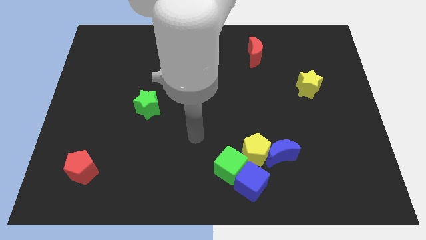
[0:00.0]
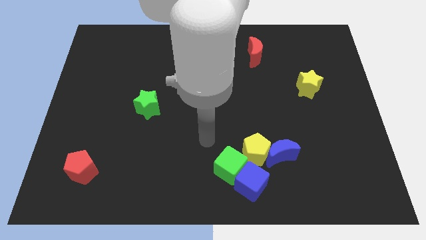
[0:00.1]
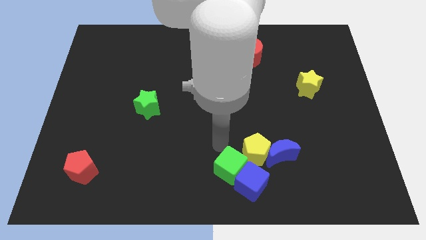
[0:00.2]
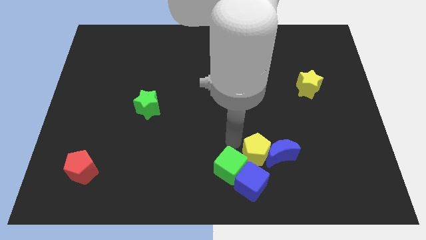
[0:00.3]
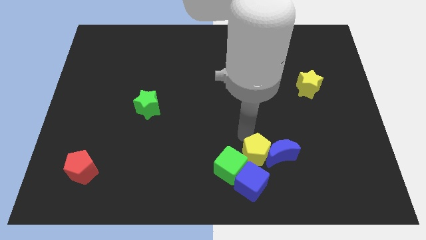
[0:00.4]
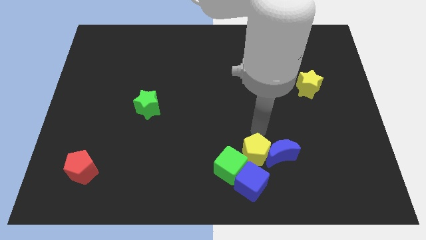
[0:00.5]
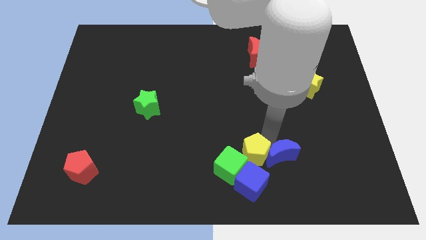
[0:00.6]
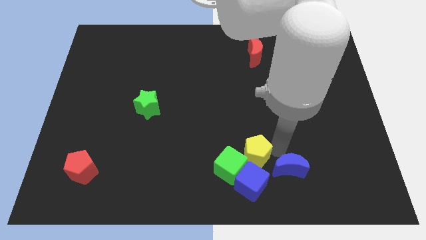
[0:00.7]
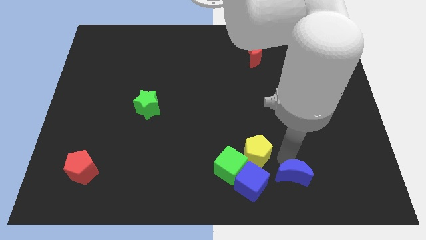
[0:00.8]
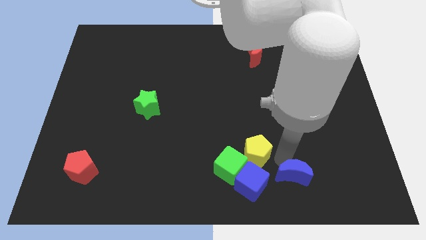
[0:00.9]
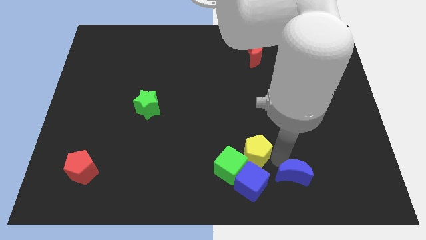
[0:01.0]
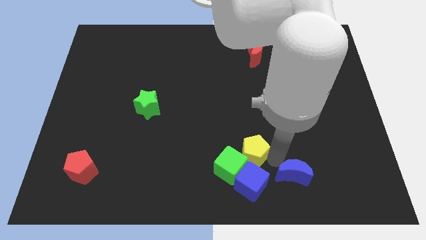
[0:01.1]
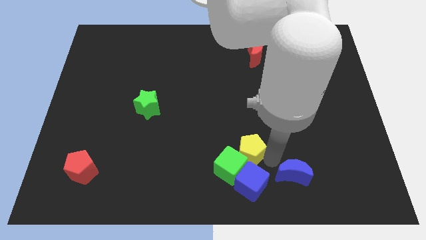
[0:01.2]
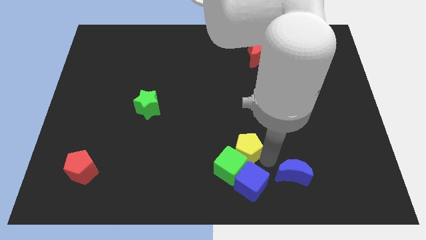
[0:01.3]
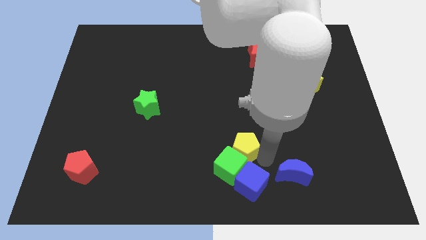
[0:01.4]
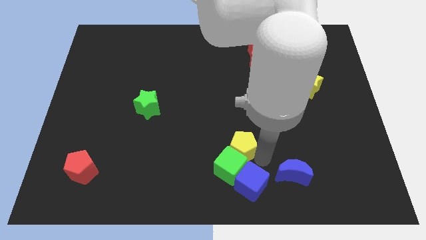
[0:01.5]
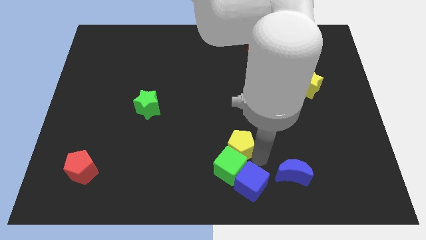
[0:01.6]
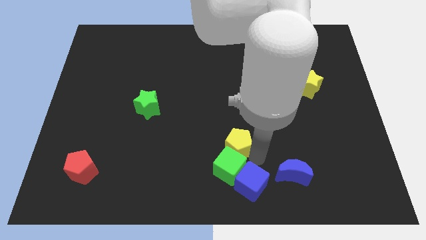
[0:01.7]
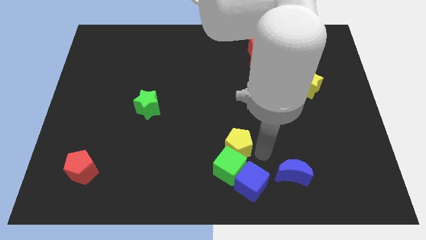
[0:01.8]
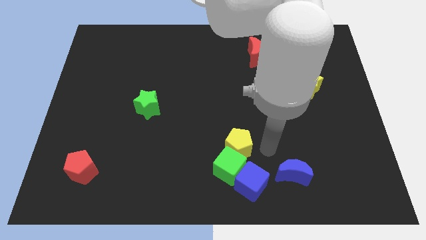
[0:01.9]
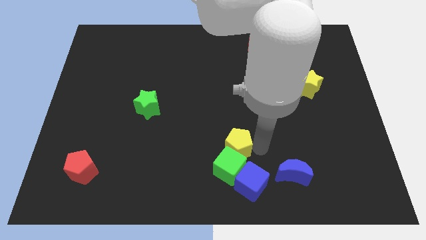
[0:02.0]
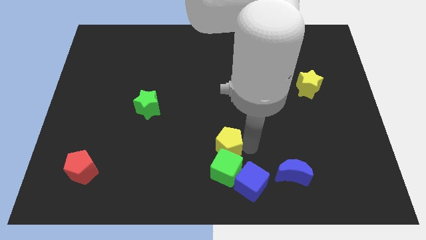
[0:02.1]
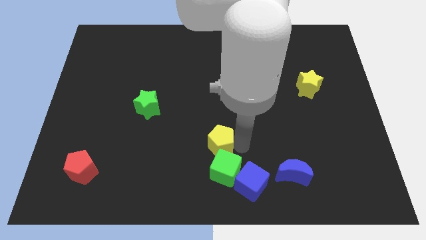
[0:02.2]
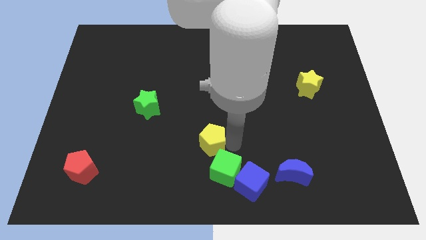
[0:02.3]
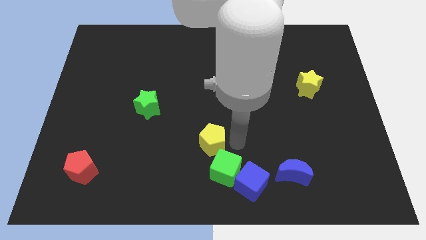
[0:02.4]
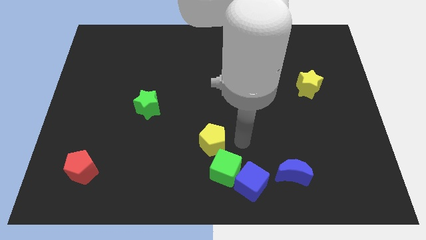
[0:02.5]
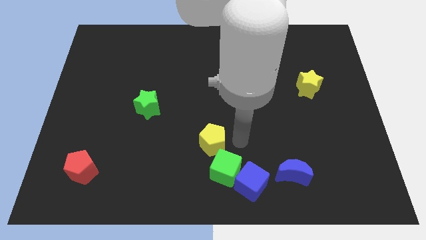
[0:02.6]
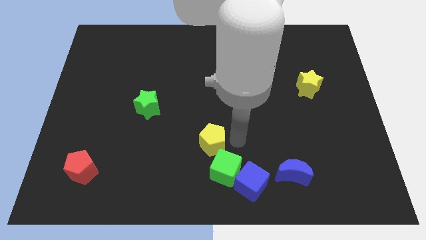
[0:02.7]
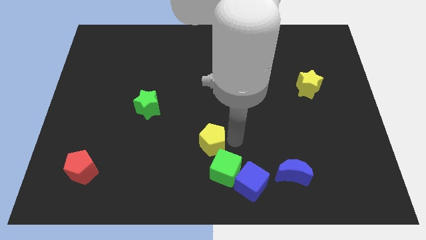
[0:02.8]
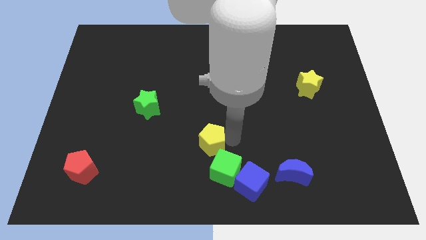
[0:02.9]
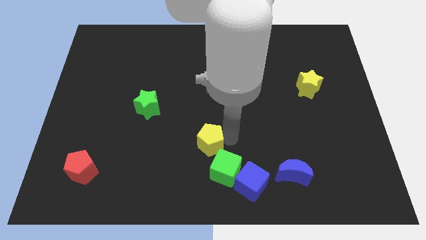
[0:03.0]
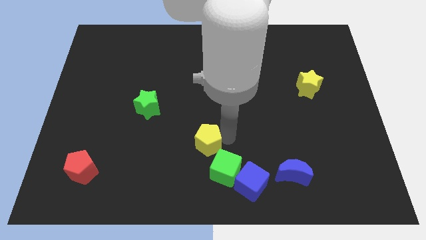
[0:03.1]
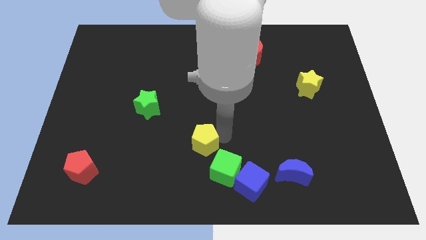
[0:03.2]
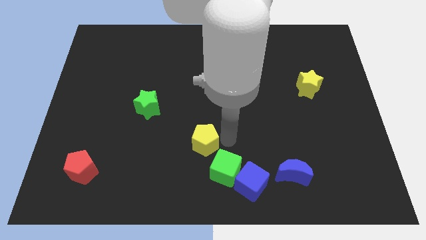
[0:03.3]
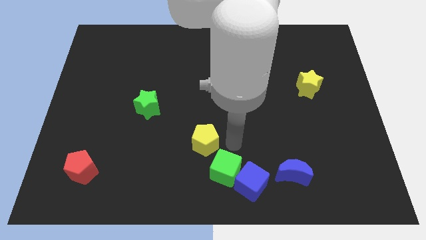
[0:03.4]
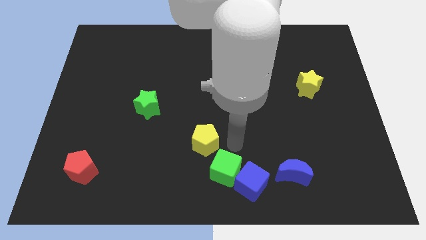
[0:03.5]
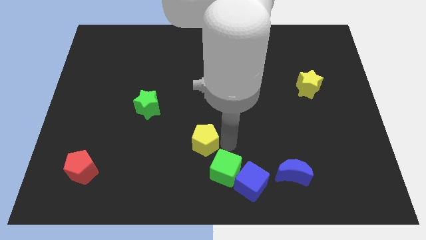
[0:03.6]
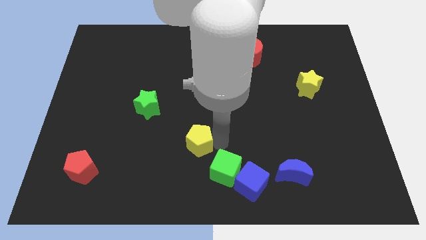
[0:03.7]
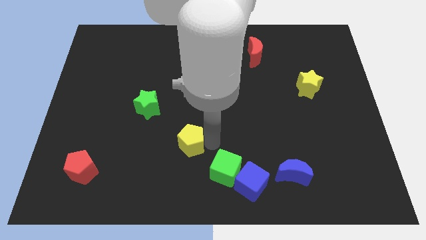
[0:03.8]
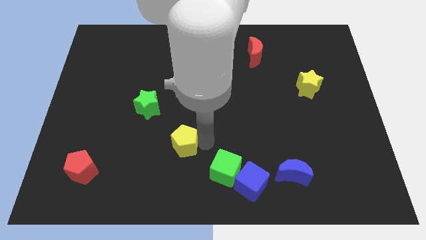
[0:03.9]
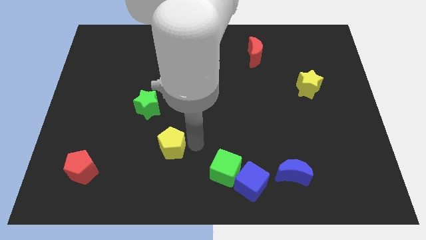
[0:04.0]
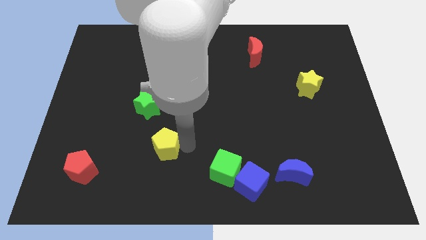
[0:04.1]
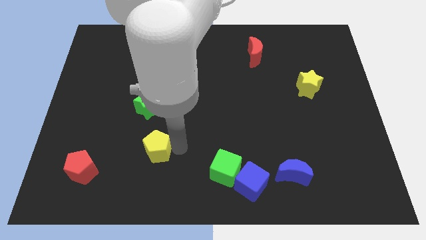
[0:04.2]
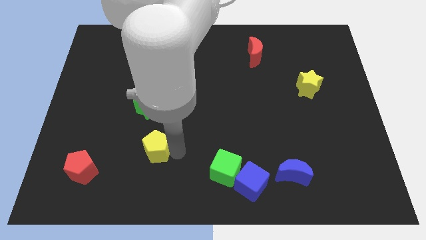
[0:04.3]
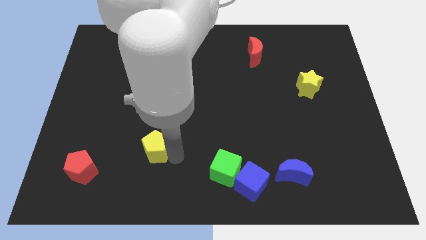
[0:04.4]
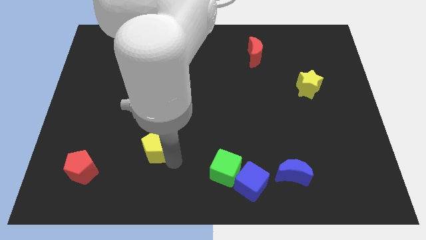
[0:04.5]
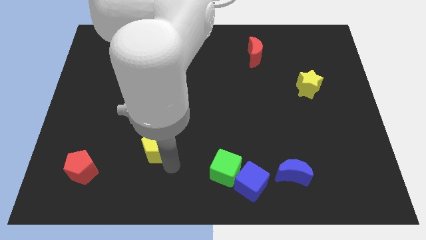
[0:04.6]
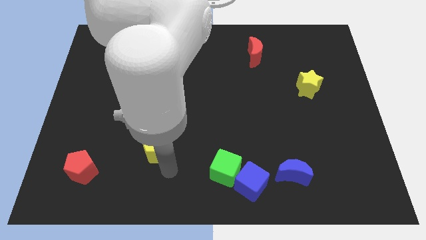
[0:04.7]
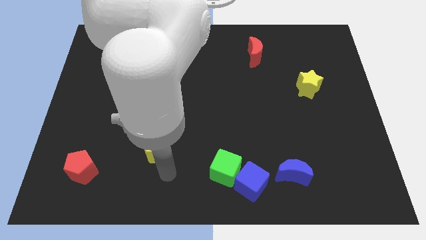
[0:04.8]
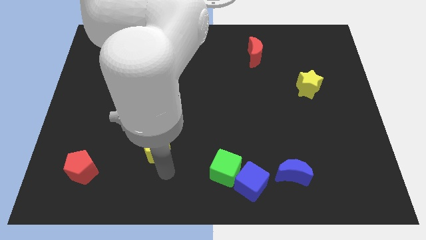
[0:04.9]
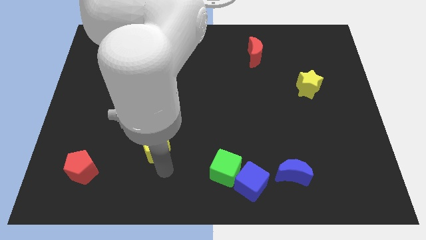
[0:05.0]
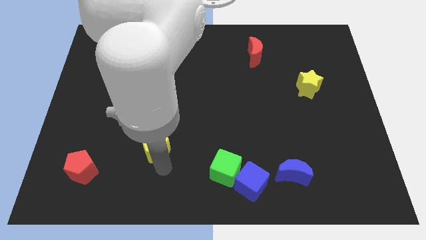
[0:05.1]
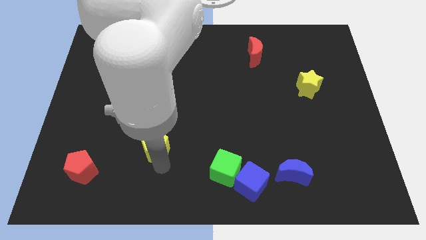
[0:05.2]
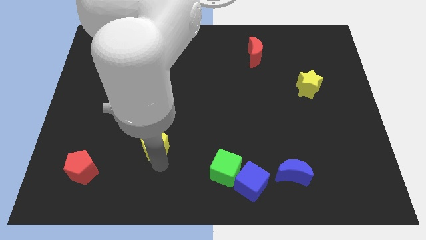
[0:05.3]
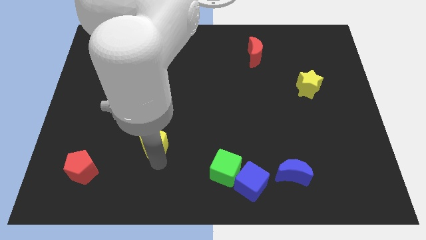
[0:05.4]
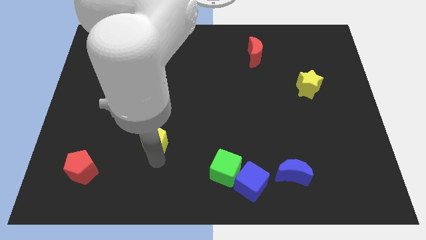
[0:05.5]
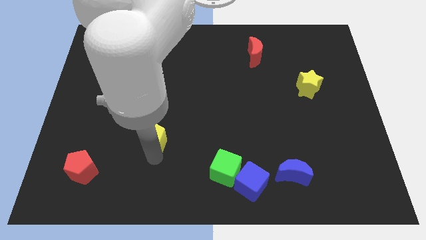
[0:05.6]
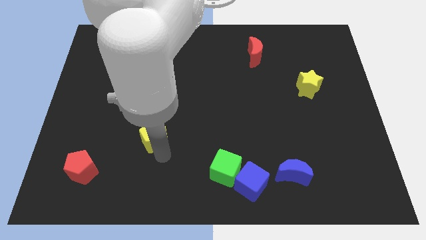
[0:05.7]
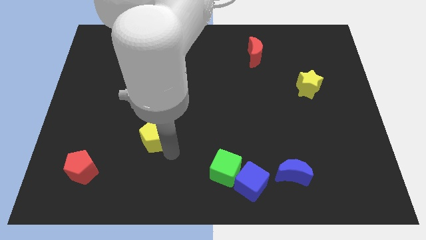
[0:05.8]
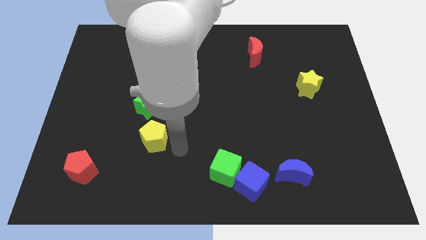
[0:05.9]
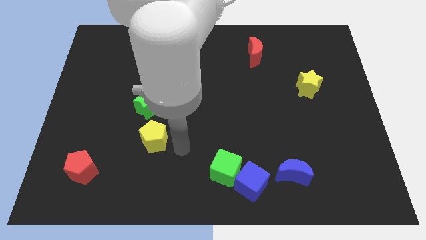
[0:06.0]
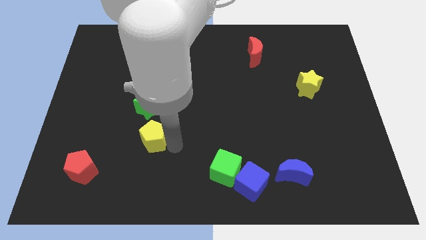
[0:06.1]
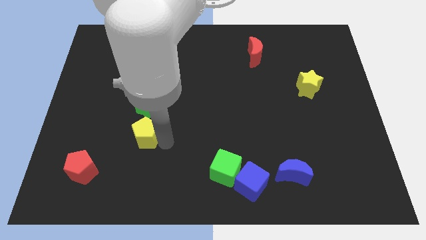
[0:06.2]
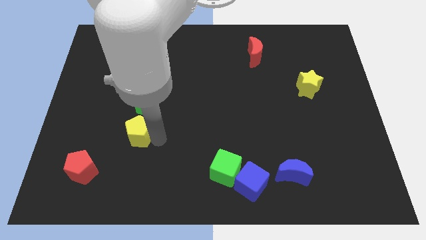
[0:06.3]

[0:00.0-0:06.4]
put the yellow pentagon to the bottom left of the green star

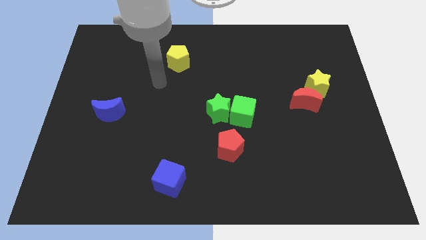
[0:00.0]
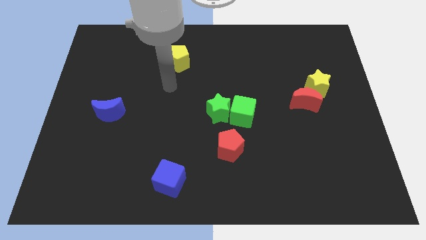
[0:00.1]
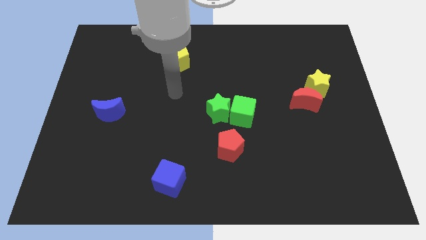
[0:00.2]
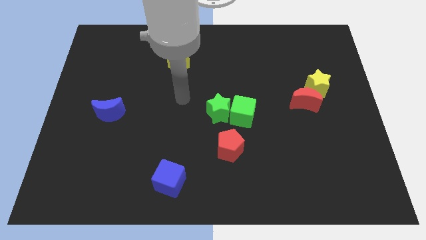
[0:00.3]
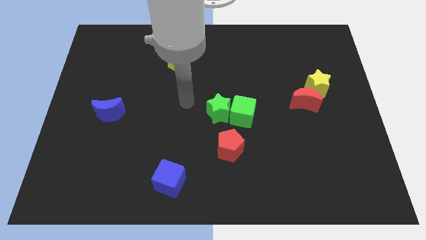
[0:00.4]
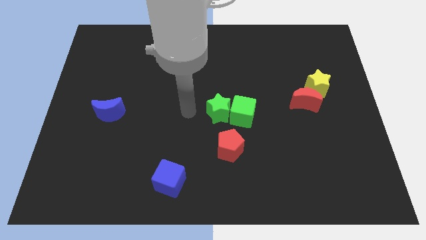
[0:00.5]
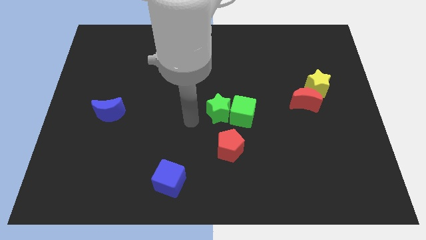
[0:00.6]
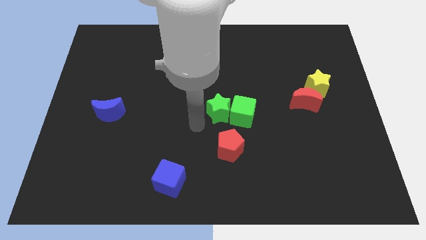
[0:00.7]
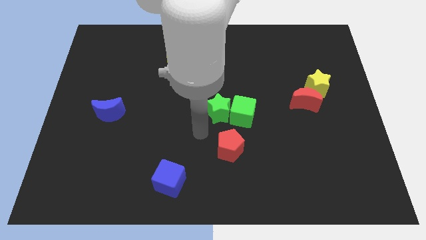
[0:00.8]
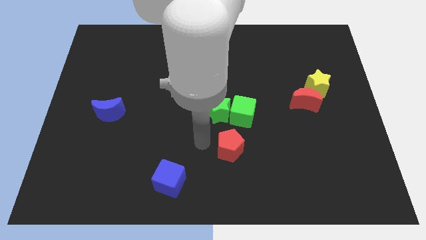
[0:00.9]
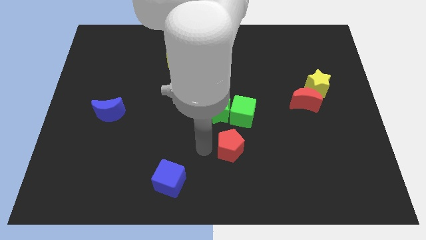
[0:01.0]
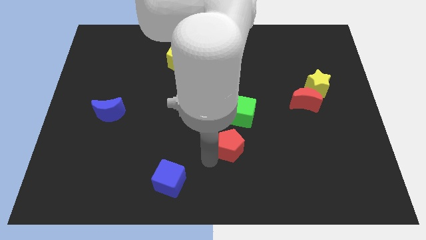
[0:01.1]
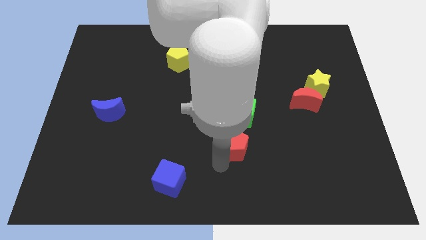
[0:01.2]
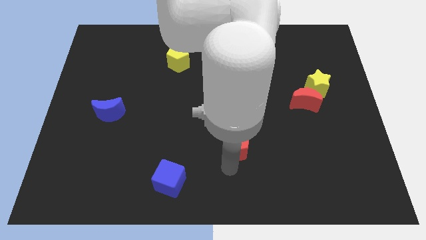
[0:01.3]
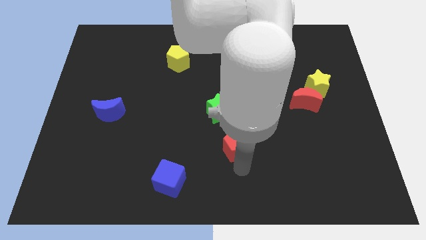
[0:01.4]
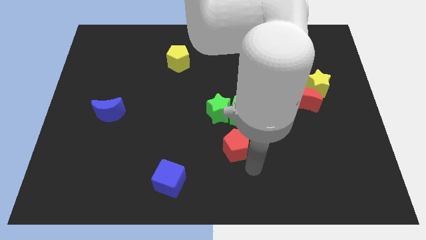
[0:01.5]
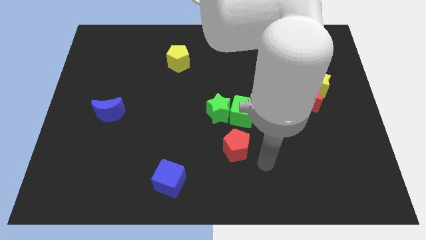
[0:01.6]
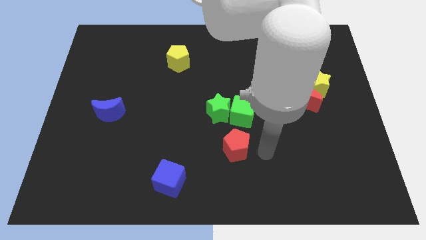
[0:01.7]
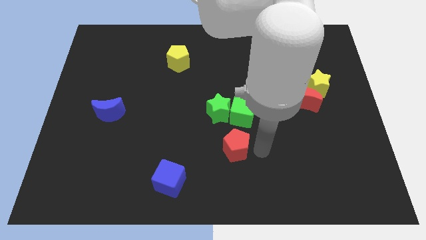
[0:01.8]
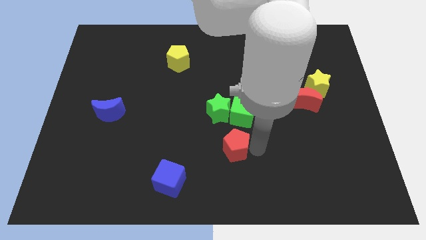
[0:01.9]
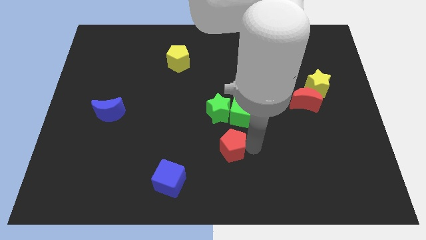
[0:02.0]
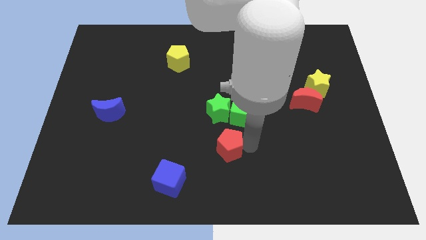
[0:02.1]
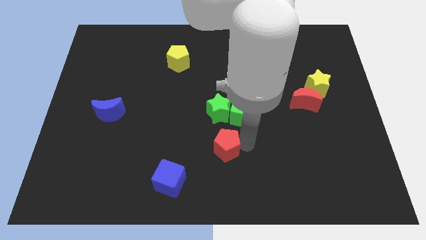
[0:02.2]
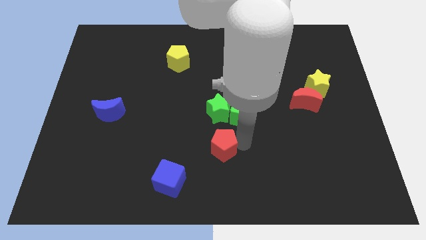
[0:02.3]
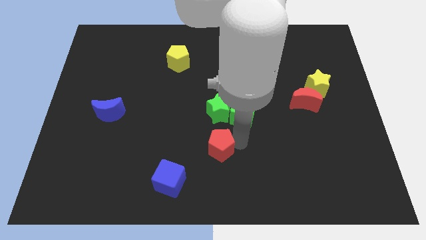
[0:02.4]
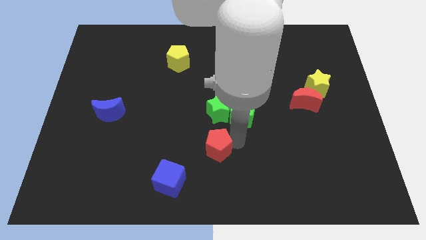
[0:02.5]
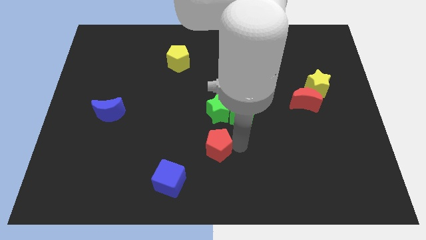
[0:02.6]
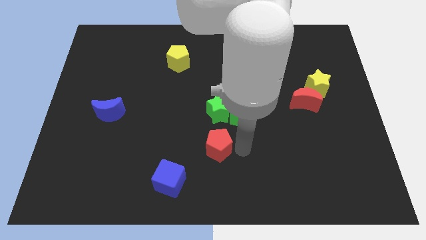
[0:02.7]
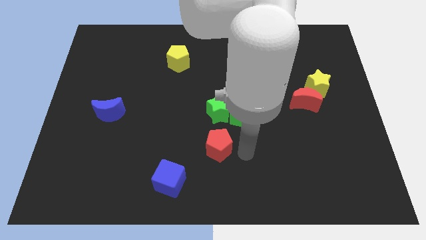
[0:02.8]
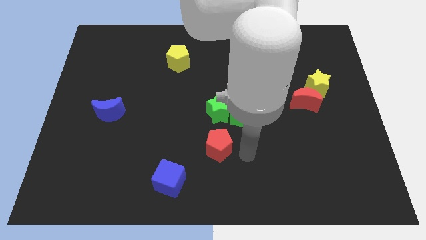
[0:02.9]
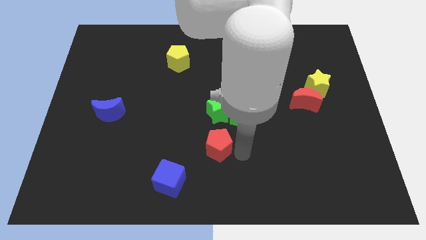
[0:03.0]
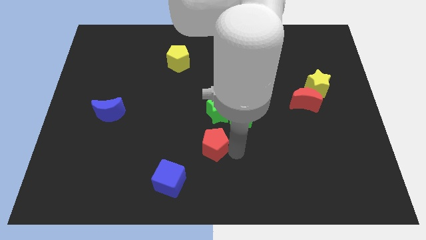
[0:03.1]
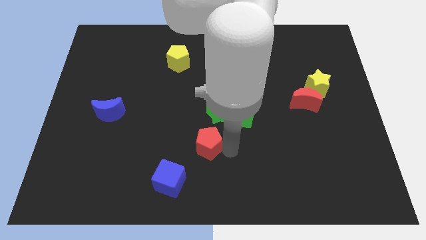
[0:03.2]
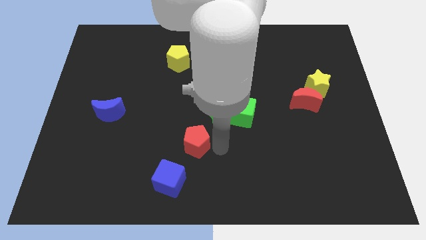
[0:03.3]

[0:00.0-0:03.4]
move the red pentagon to the top side of the blue cube
